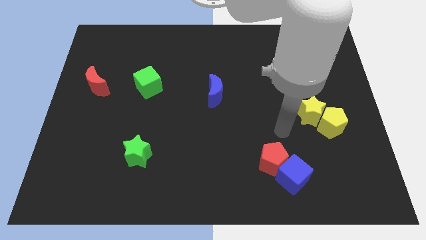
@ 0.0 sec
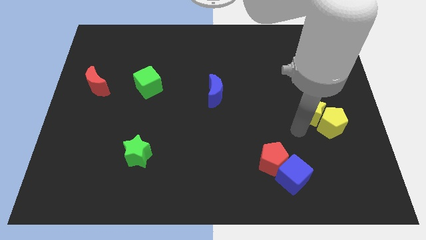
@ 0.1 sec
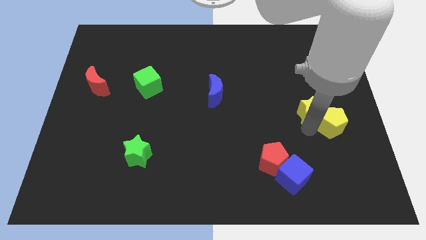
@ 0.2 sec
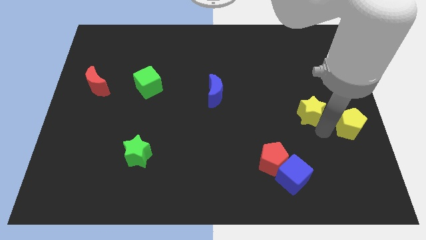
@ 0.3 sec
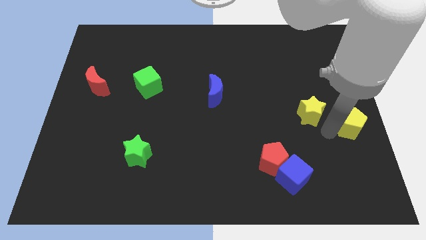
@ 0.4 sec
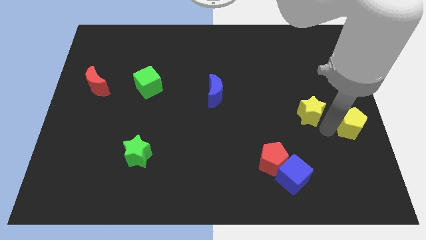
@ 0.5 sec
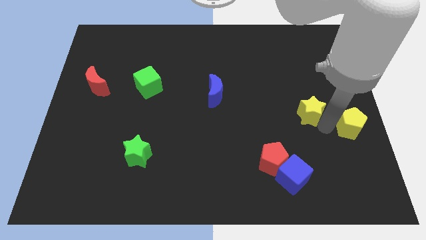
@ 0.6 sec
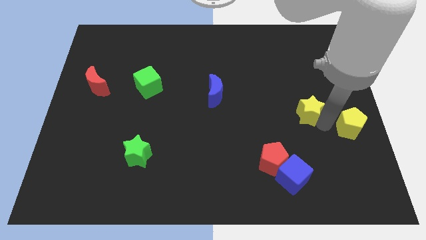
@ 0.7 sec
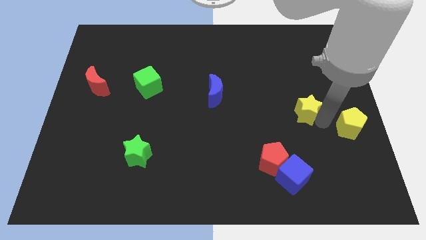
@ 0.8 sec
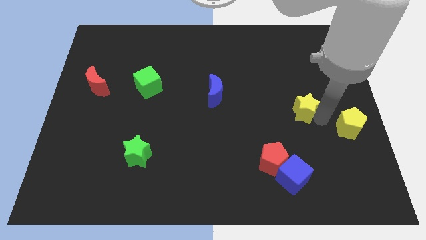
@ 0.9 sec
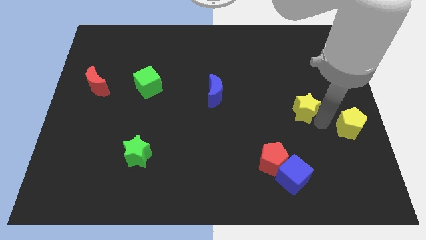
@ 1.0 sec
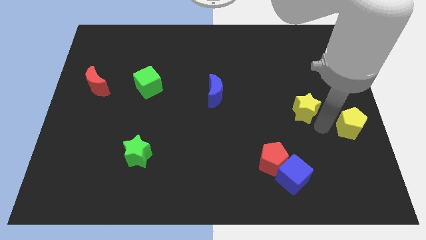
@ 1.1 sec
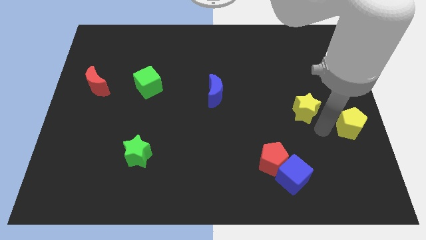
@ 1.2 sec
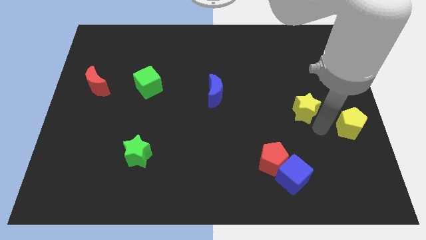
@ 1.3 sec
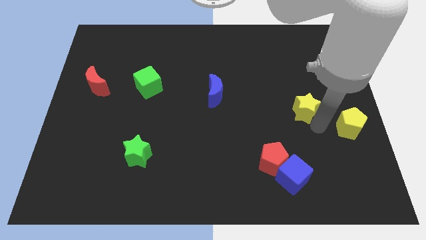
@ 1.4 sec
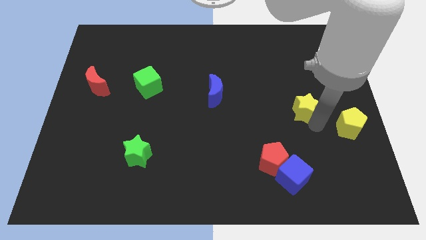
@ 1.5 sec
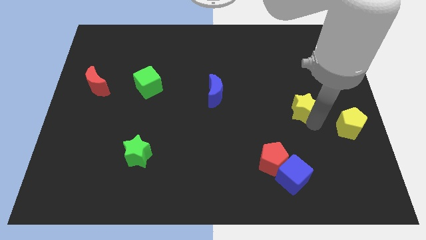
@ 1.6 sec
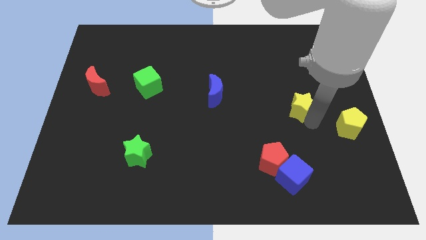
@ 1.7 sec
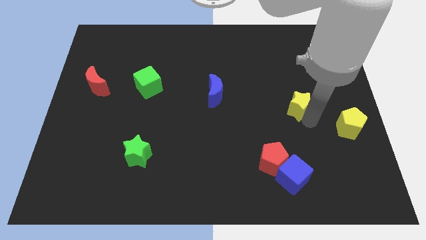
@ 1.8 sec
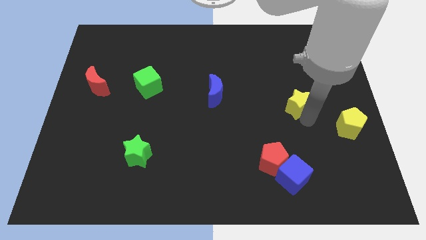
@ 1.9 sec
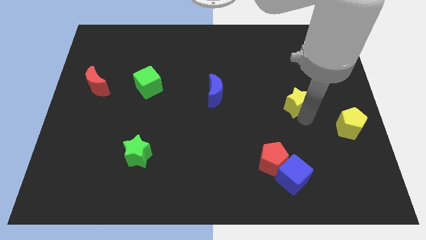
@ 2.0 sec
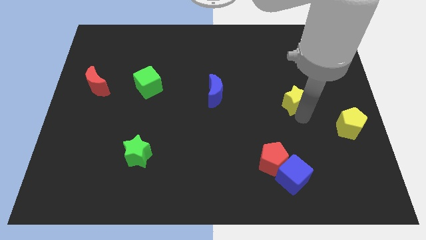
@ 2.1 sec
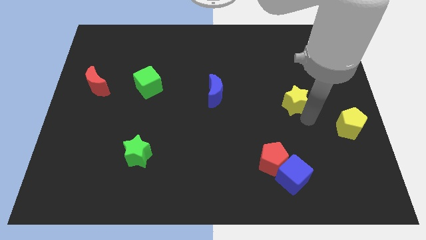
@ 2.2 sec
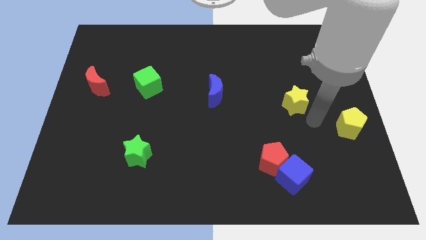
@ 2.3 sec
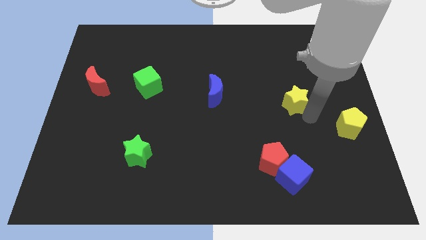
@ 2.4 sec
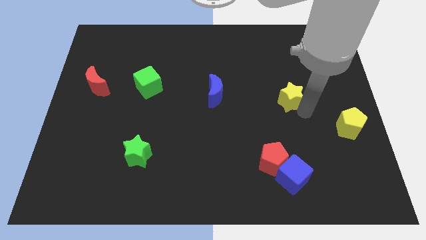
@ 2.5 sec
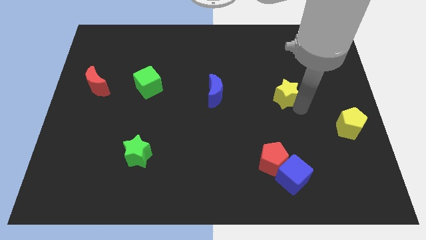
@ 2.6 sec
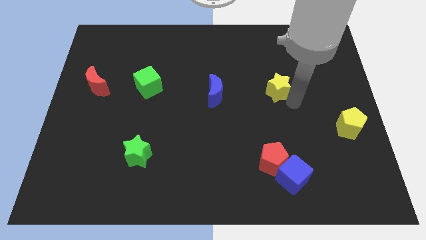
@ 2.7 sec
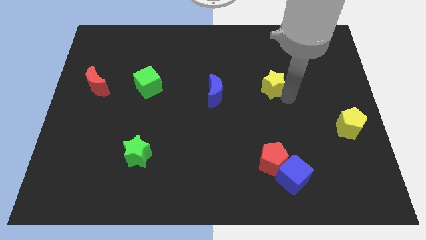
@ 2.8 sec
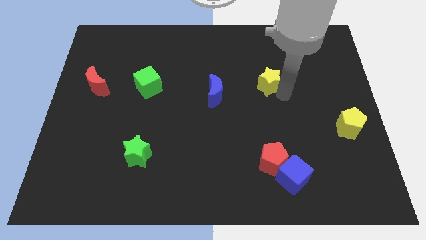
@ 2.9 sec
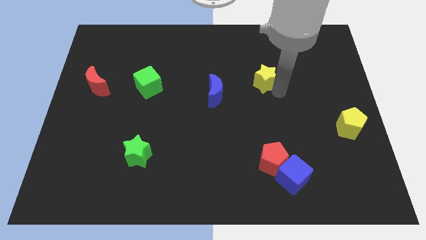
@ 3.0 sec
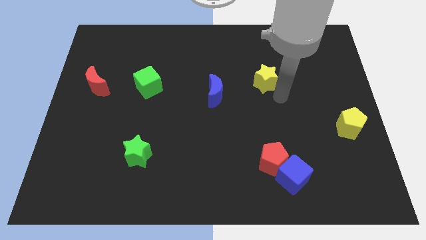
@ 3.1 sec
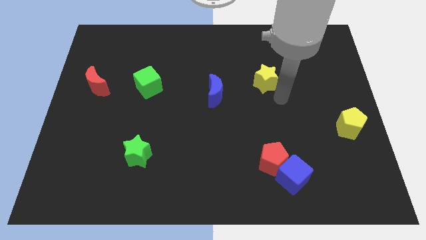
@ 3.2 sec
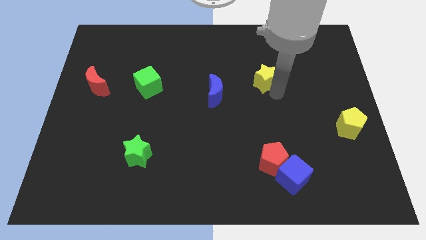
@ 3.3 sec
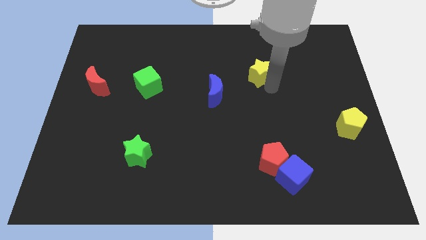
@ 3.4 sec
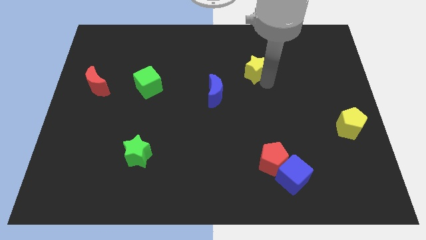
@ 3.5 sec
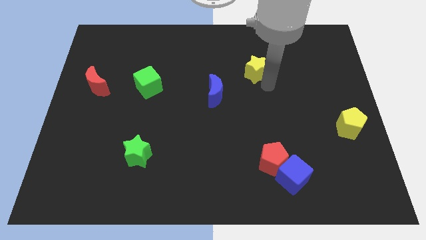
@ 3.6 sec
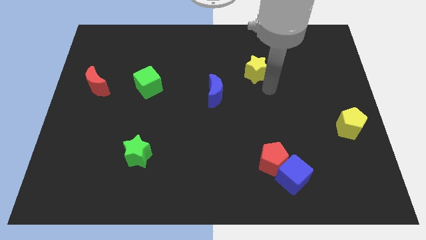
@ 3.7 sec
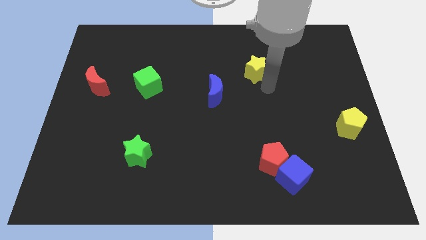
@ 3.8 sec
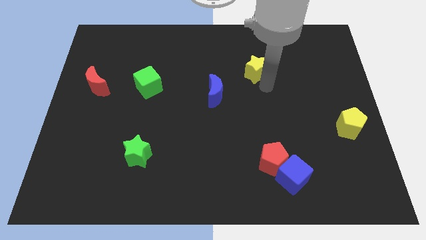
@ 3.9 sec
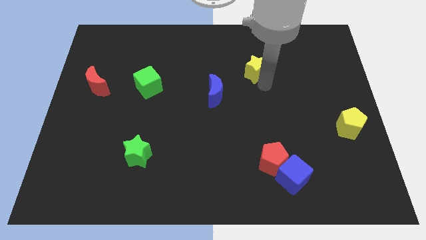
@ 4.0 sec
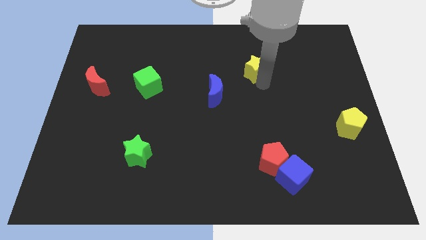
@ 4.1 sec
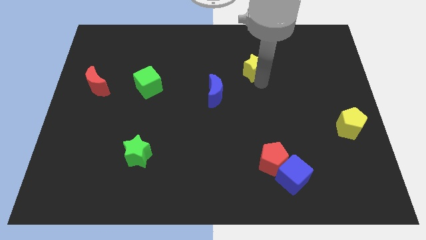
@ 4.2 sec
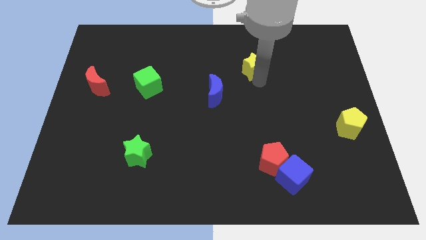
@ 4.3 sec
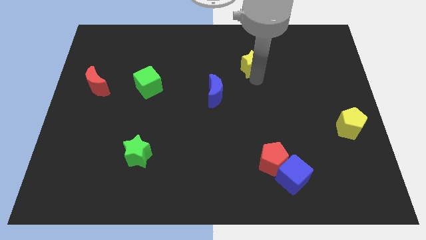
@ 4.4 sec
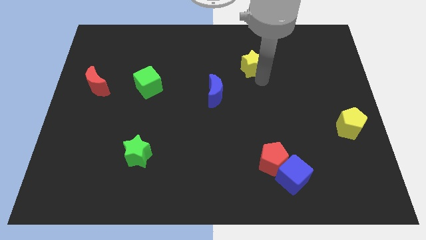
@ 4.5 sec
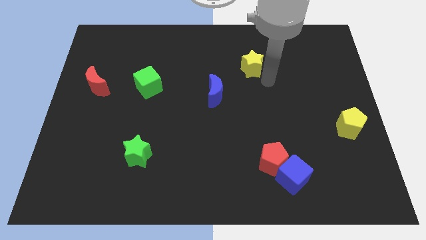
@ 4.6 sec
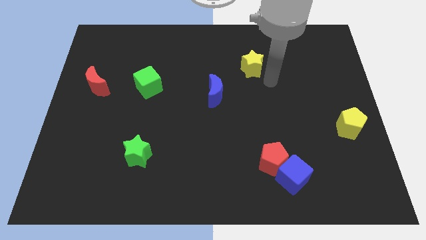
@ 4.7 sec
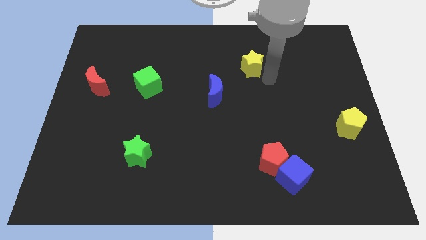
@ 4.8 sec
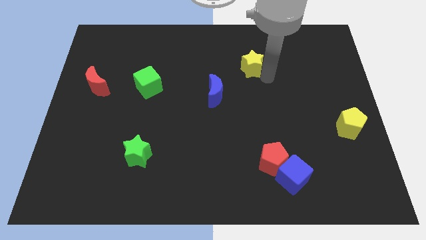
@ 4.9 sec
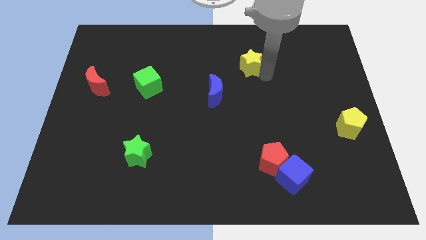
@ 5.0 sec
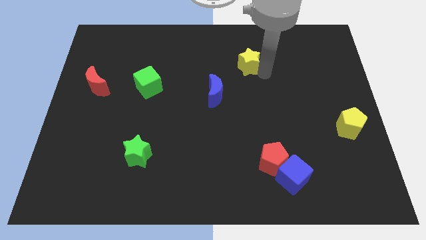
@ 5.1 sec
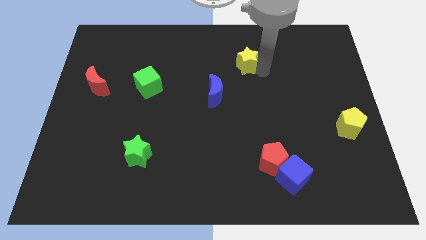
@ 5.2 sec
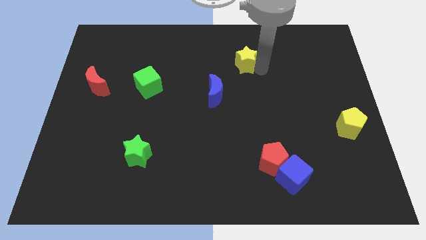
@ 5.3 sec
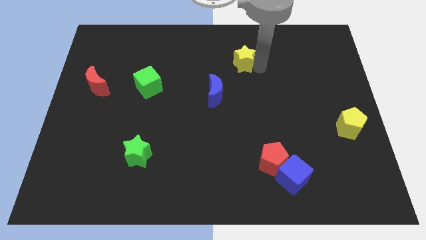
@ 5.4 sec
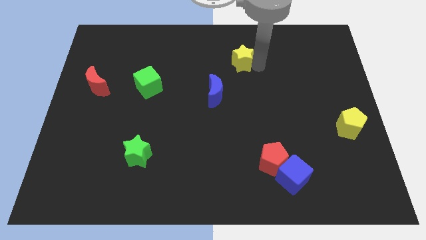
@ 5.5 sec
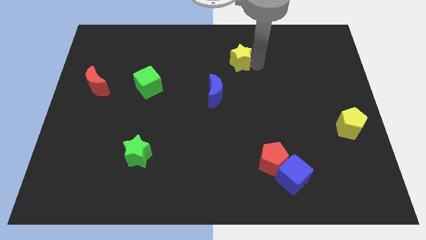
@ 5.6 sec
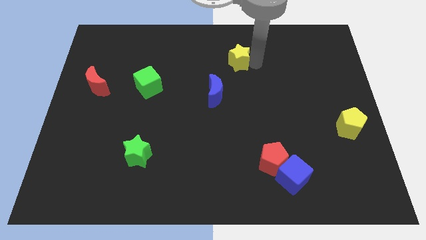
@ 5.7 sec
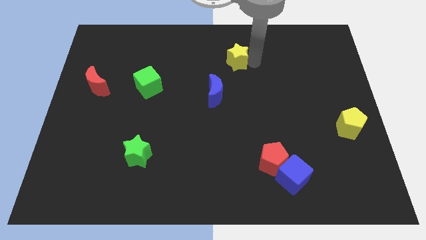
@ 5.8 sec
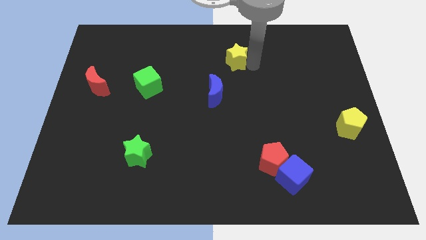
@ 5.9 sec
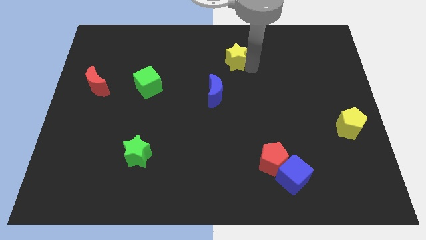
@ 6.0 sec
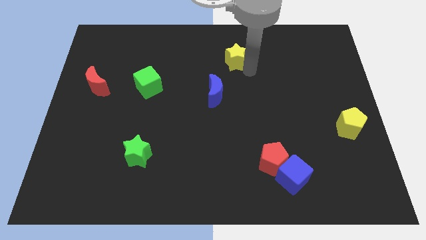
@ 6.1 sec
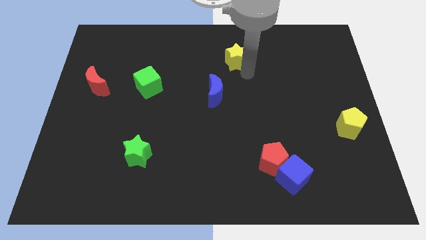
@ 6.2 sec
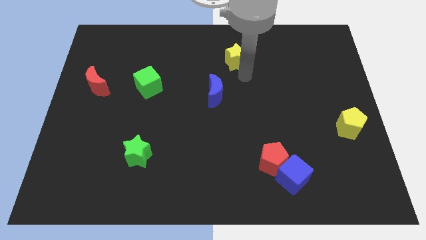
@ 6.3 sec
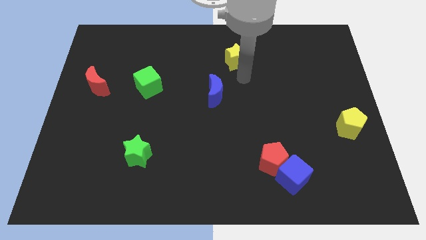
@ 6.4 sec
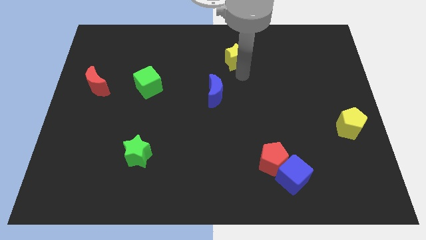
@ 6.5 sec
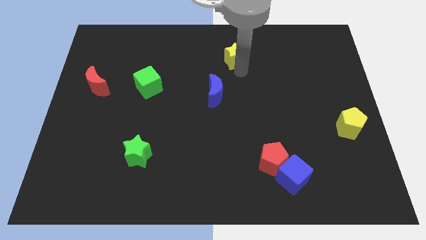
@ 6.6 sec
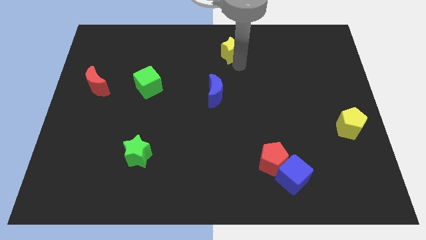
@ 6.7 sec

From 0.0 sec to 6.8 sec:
move the yellow star to the towards your base
